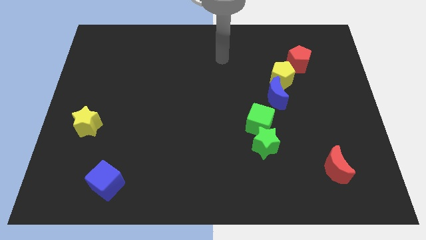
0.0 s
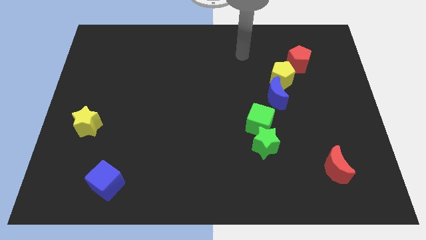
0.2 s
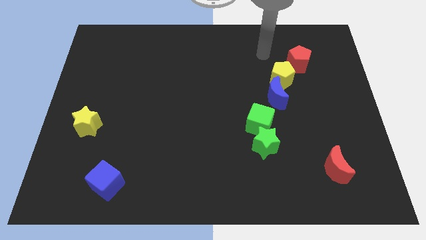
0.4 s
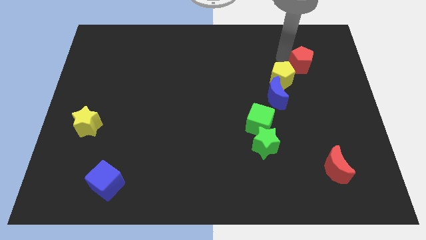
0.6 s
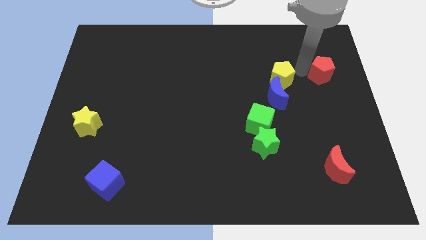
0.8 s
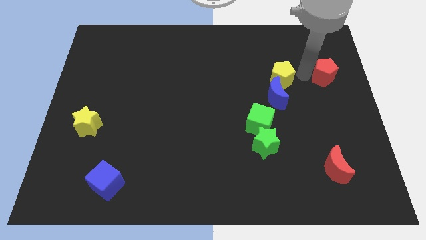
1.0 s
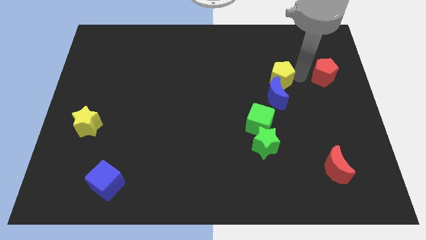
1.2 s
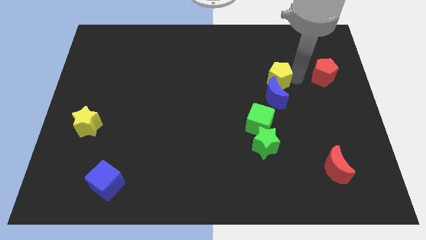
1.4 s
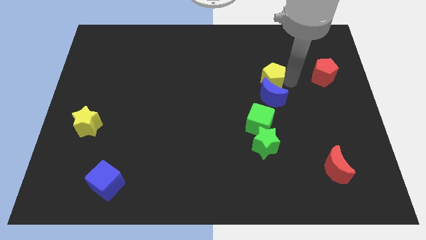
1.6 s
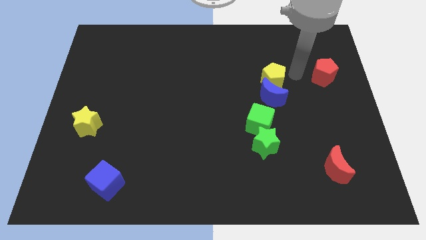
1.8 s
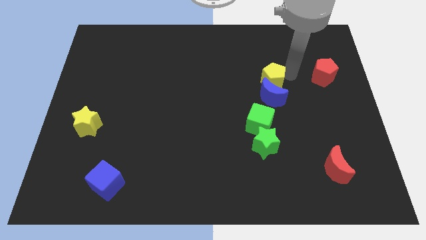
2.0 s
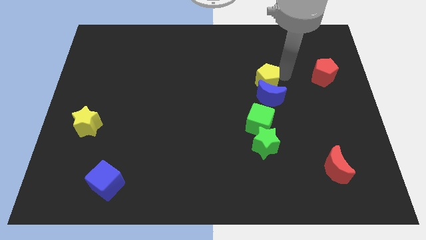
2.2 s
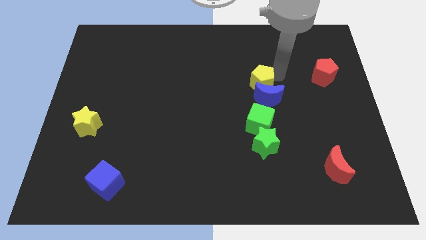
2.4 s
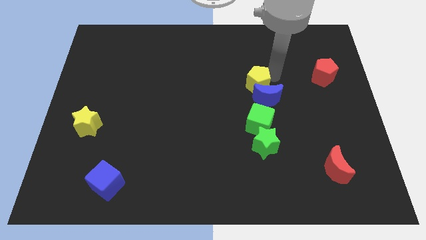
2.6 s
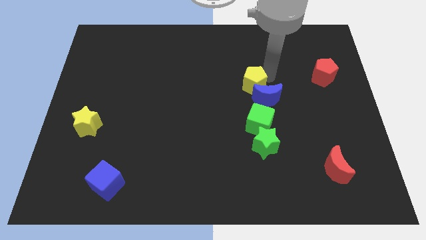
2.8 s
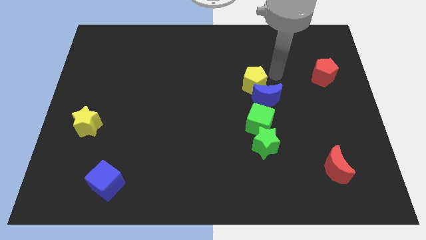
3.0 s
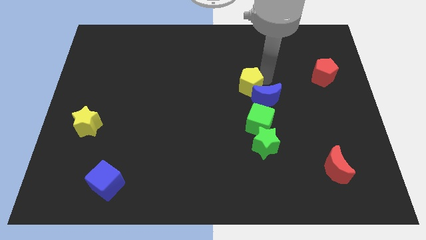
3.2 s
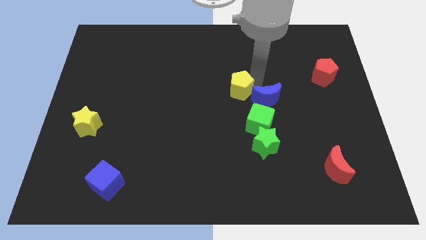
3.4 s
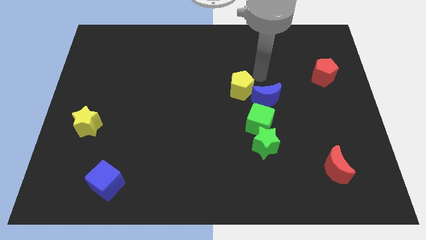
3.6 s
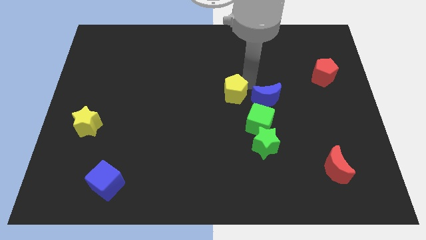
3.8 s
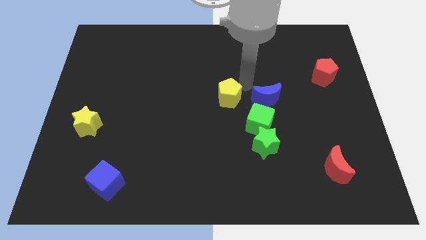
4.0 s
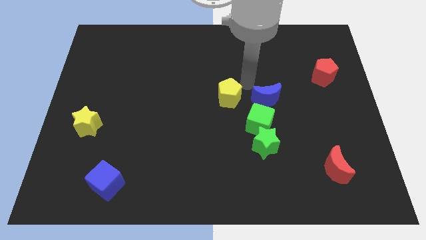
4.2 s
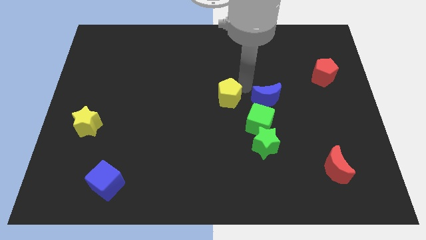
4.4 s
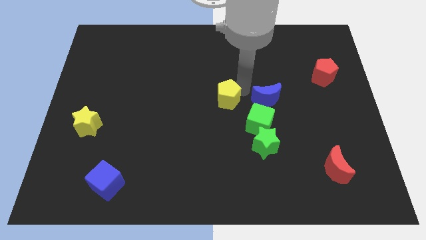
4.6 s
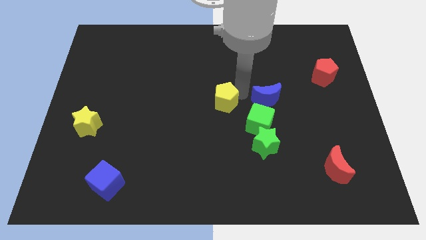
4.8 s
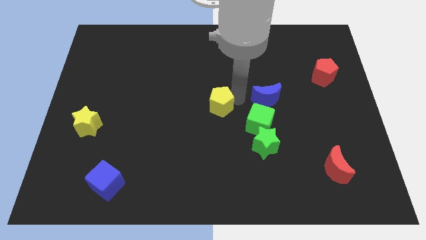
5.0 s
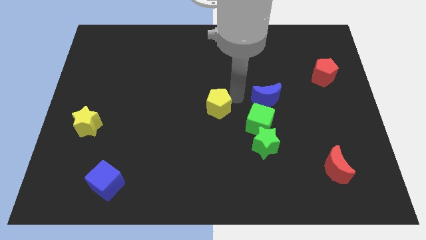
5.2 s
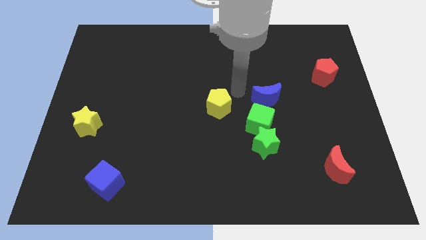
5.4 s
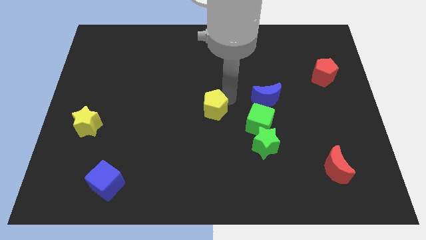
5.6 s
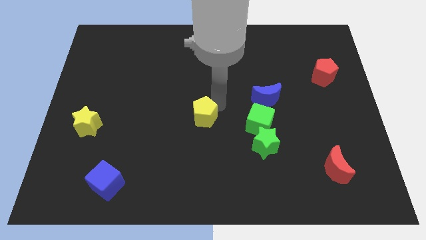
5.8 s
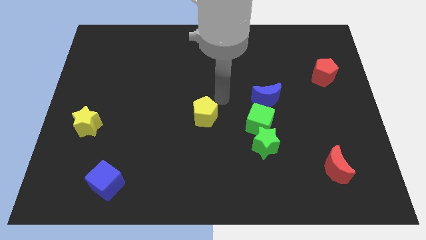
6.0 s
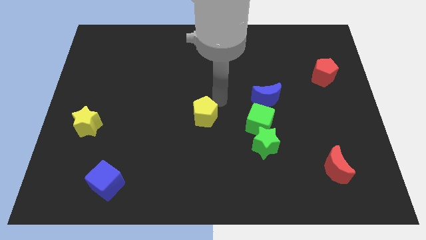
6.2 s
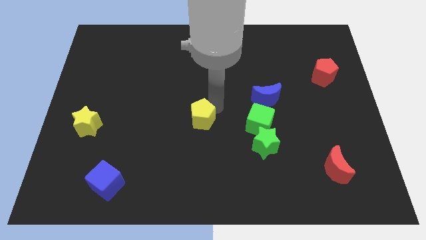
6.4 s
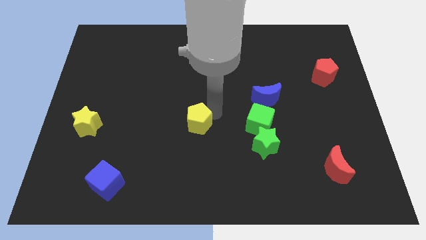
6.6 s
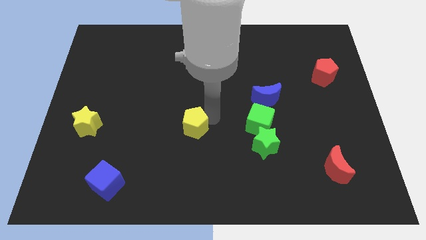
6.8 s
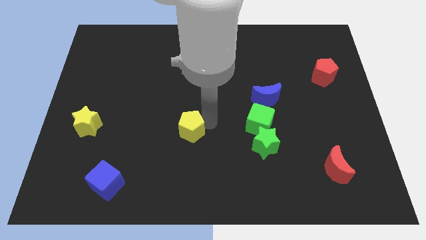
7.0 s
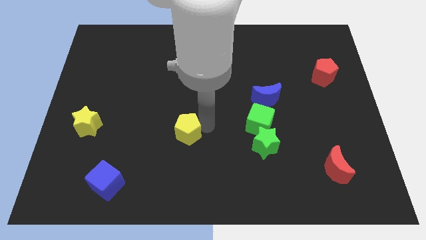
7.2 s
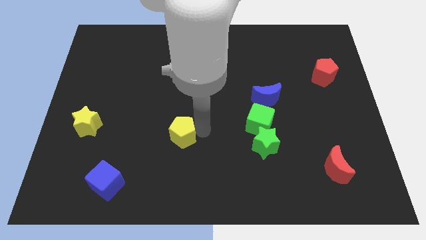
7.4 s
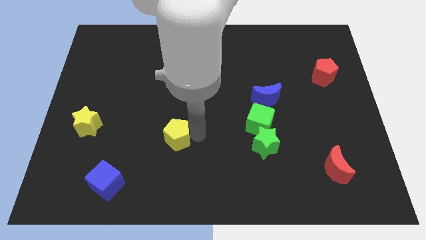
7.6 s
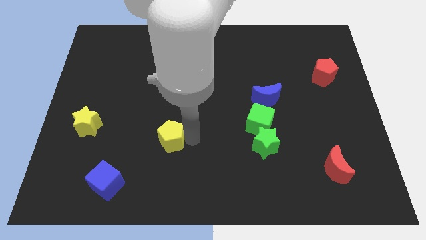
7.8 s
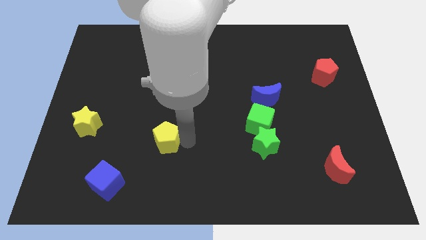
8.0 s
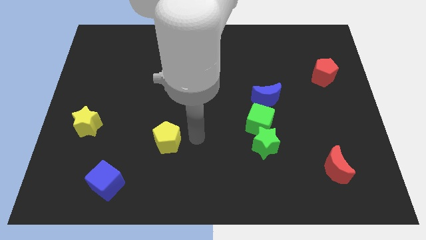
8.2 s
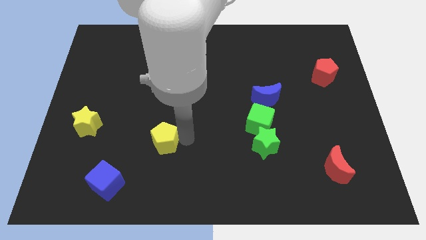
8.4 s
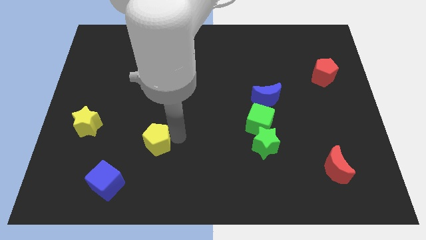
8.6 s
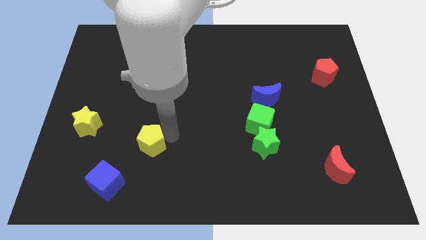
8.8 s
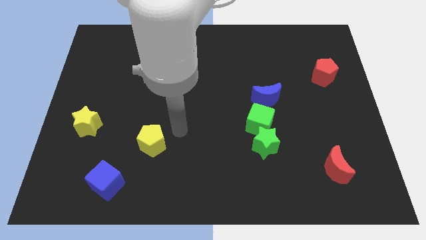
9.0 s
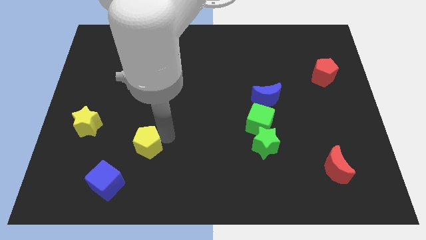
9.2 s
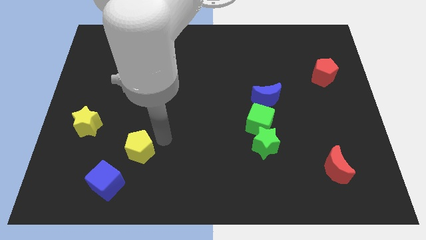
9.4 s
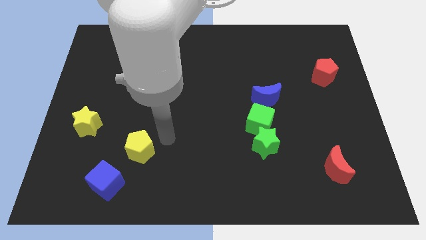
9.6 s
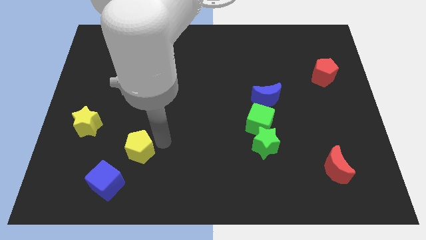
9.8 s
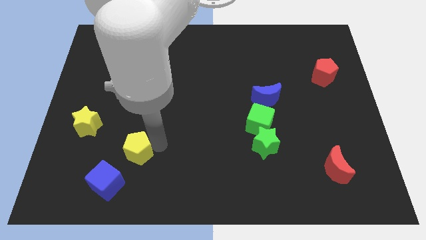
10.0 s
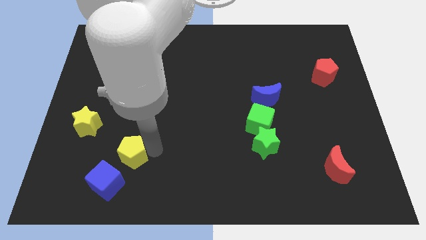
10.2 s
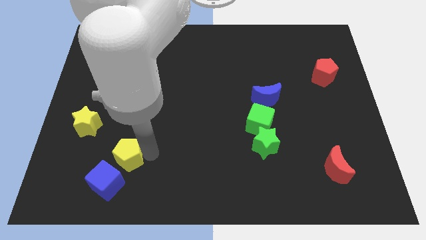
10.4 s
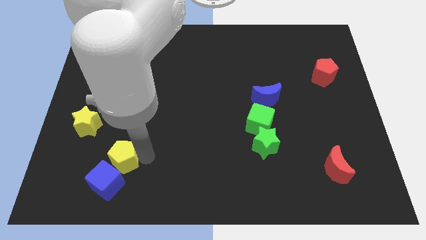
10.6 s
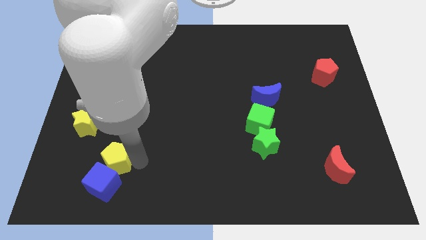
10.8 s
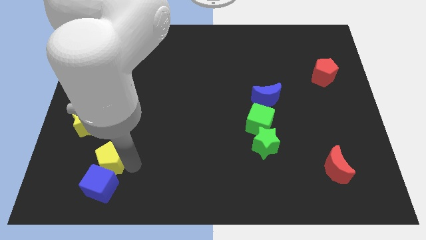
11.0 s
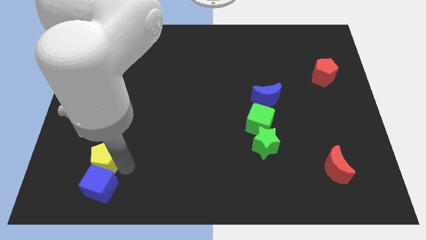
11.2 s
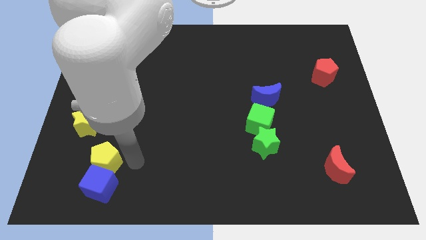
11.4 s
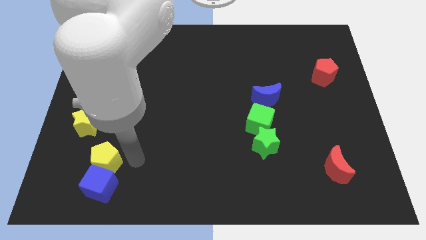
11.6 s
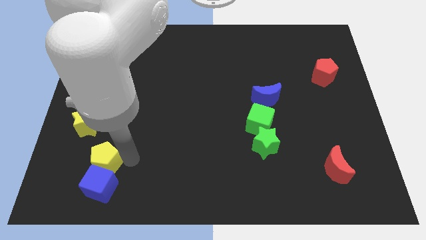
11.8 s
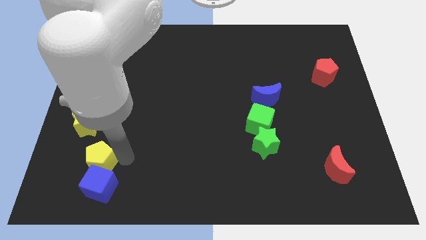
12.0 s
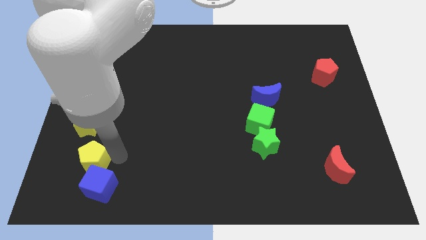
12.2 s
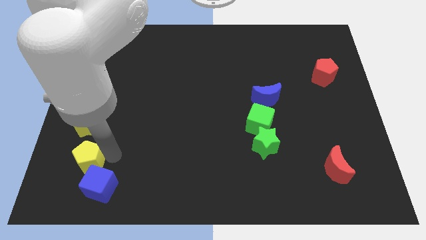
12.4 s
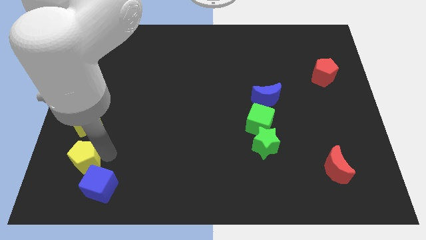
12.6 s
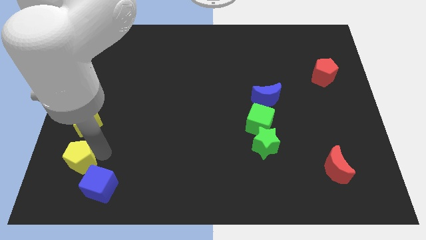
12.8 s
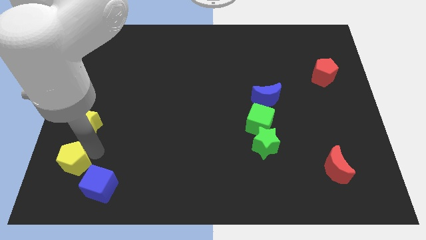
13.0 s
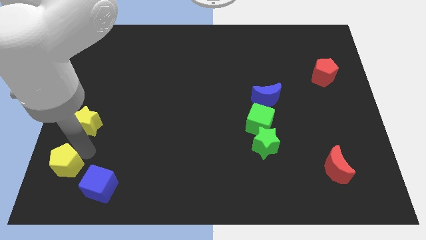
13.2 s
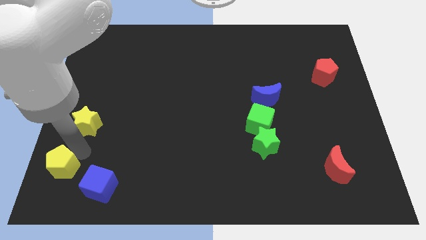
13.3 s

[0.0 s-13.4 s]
push the yellow pentagon to the lower left corner
